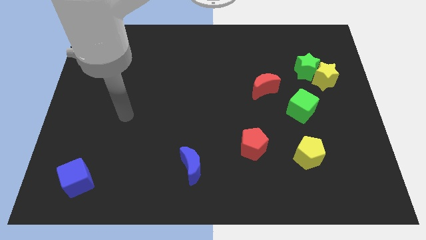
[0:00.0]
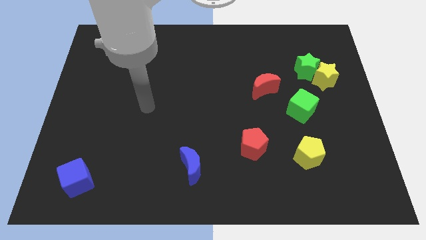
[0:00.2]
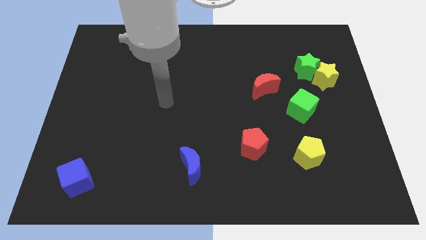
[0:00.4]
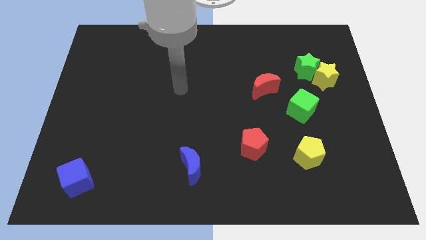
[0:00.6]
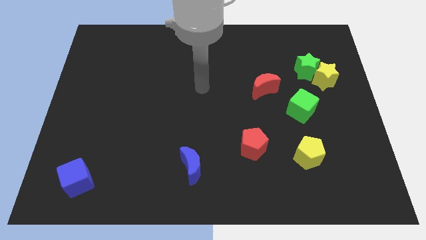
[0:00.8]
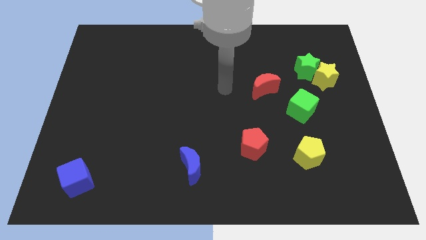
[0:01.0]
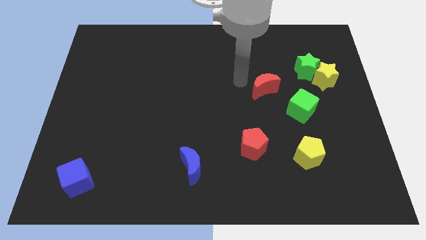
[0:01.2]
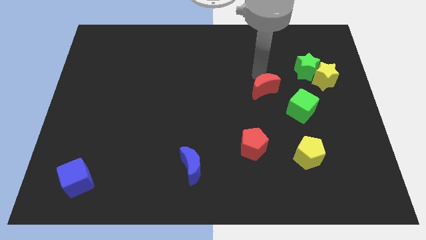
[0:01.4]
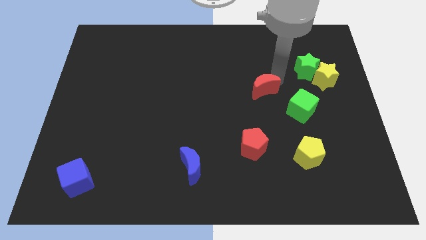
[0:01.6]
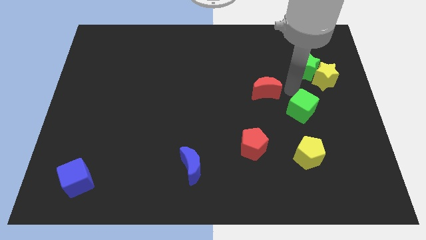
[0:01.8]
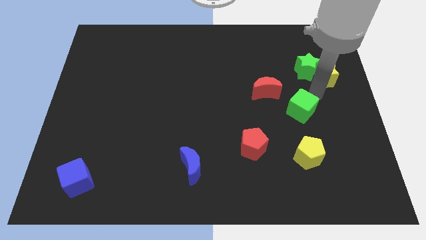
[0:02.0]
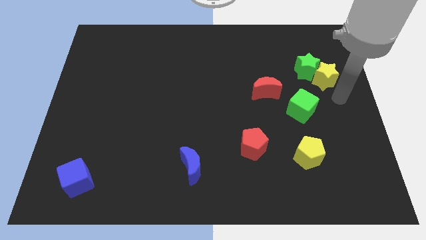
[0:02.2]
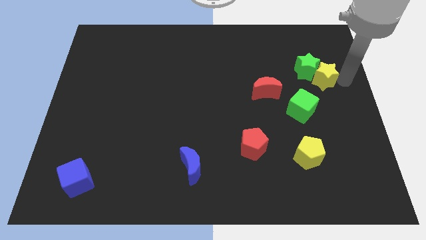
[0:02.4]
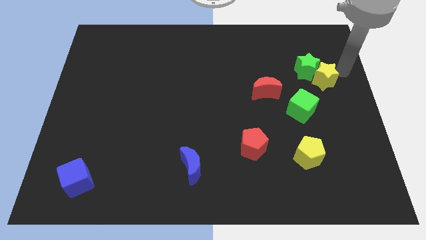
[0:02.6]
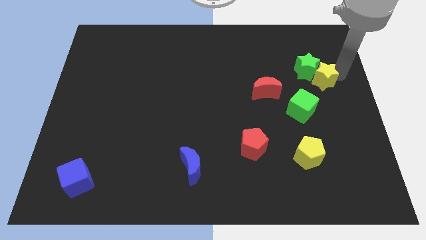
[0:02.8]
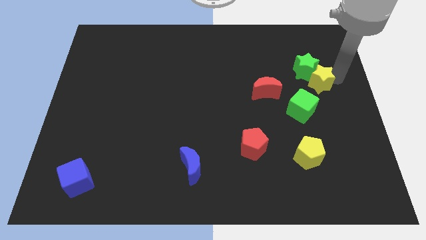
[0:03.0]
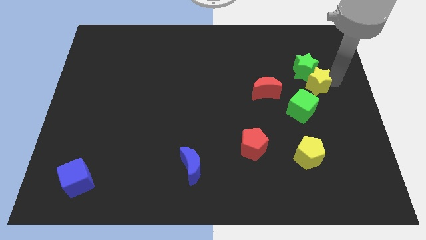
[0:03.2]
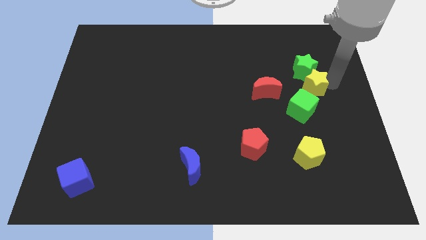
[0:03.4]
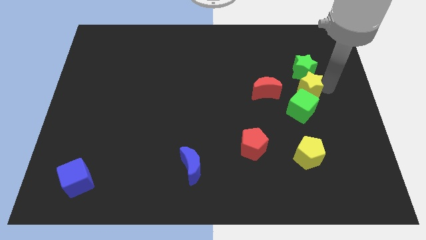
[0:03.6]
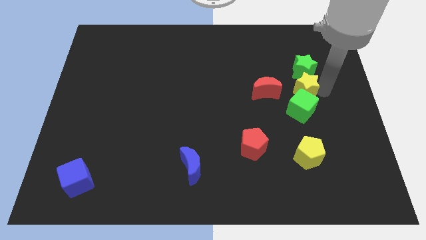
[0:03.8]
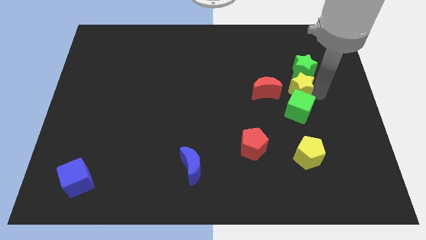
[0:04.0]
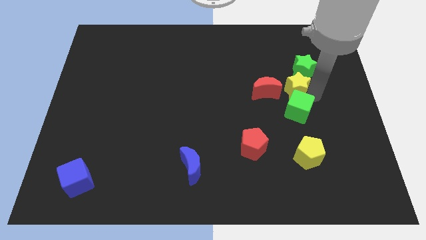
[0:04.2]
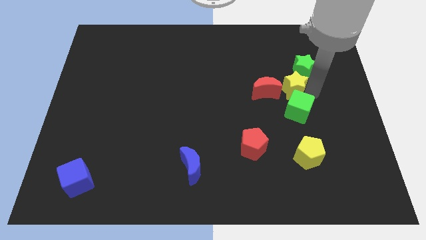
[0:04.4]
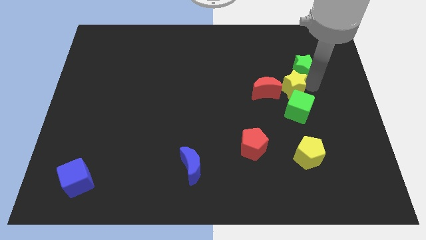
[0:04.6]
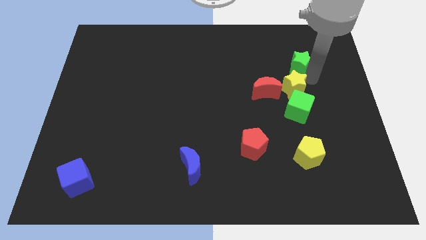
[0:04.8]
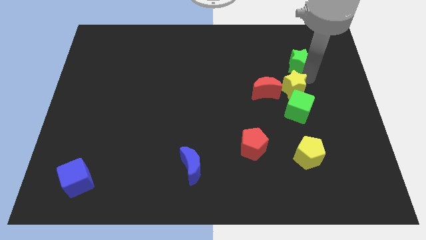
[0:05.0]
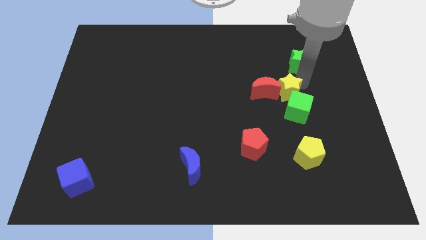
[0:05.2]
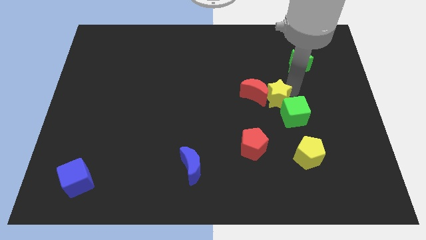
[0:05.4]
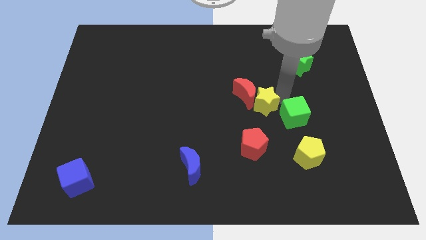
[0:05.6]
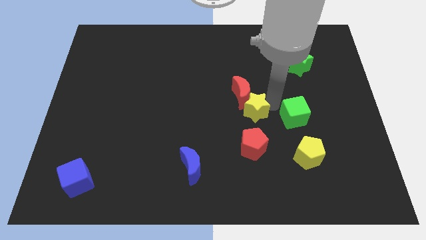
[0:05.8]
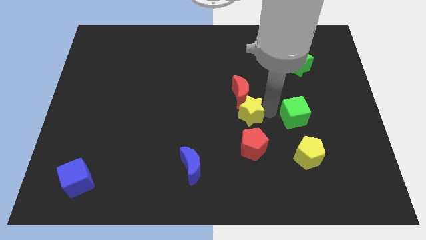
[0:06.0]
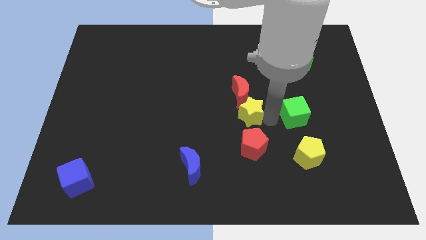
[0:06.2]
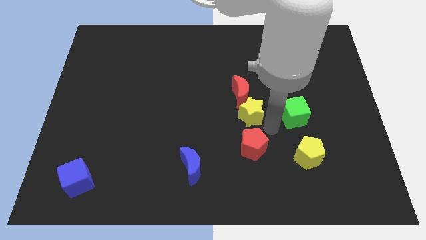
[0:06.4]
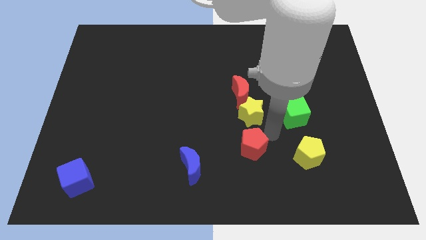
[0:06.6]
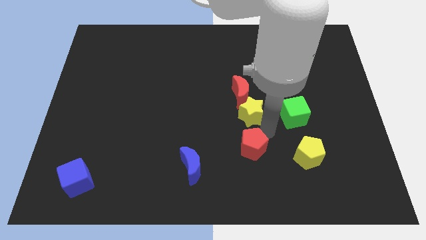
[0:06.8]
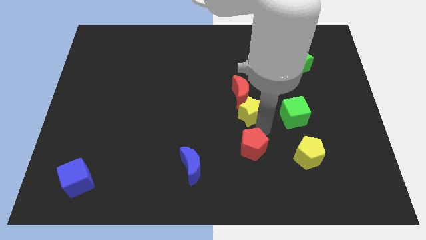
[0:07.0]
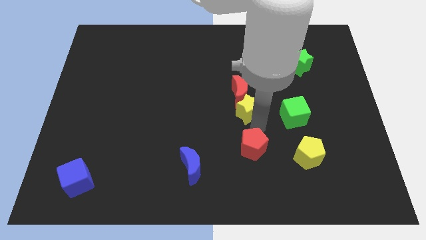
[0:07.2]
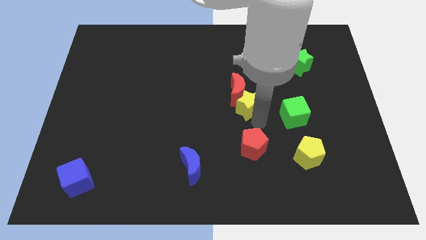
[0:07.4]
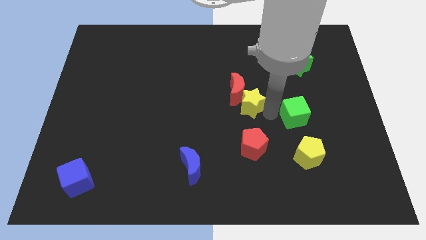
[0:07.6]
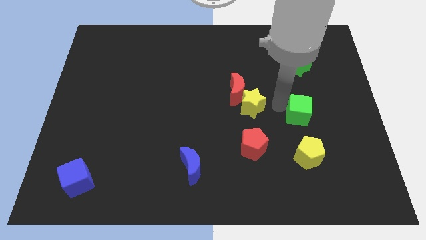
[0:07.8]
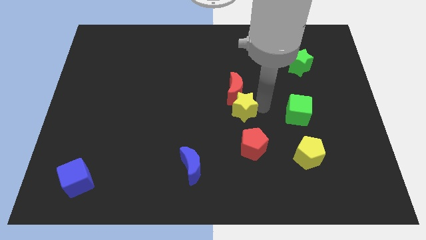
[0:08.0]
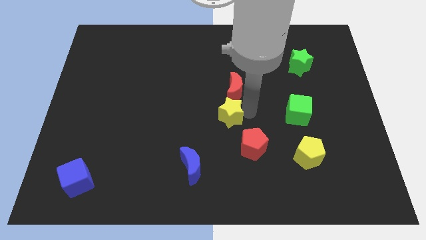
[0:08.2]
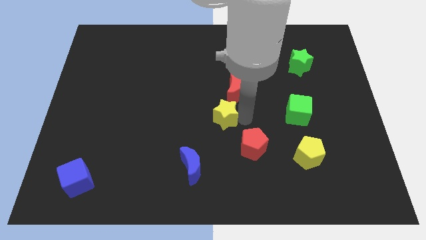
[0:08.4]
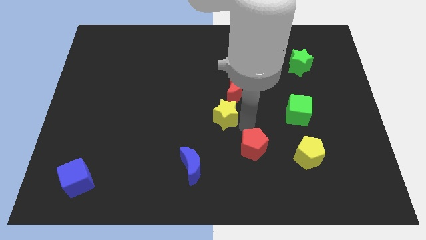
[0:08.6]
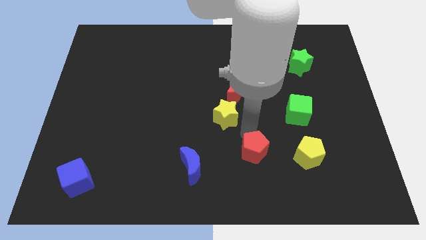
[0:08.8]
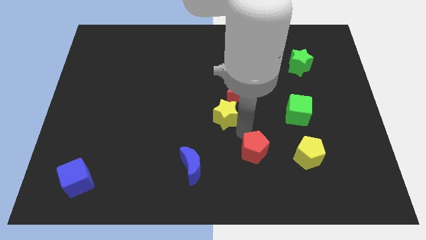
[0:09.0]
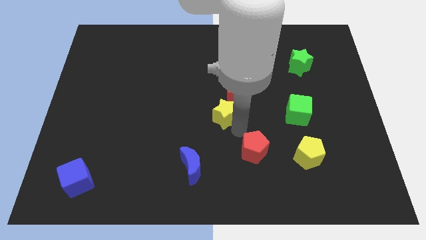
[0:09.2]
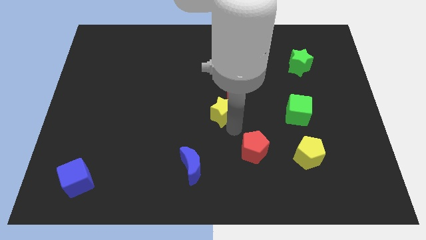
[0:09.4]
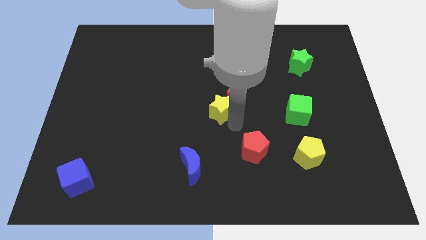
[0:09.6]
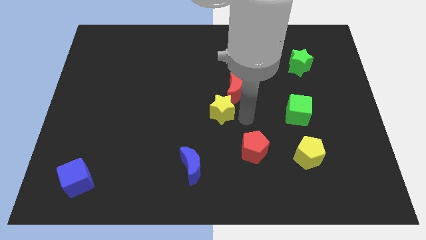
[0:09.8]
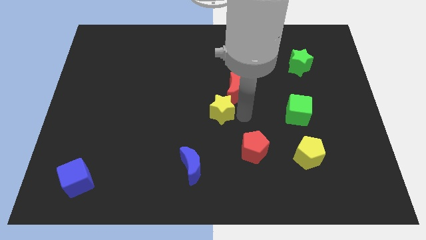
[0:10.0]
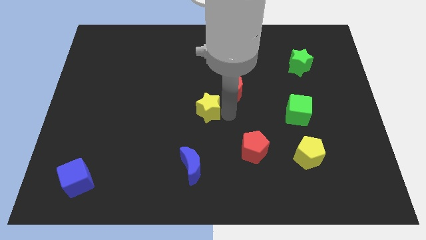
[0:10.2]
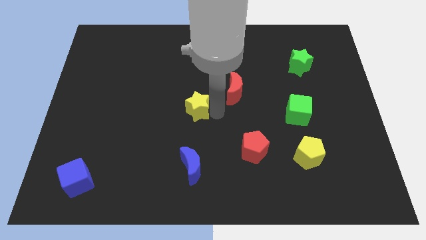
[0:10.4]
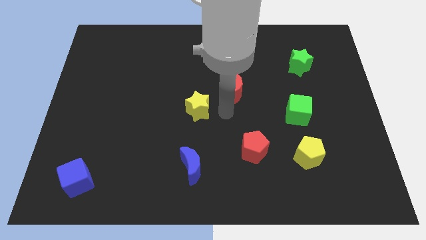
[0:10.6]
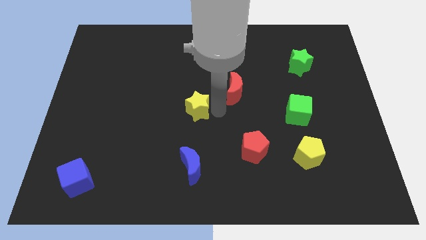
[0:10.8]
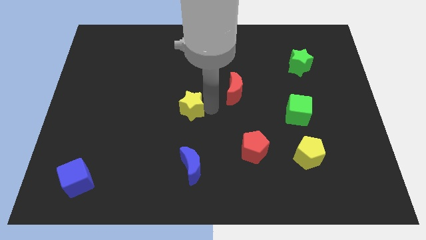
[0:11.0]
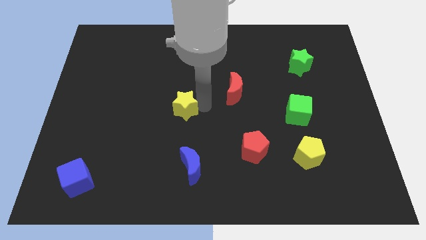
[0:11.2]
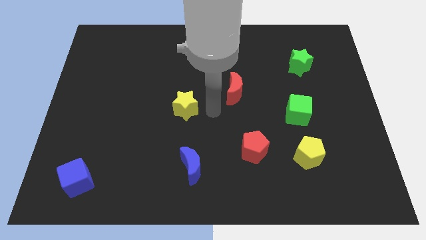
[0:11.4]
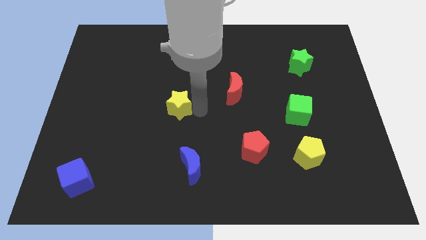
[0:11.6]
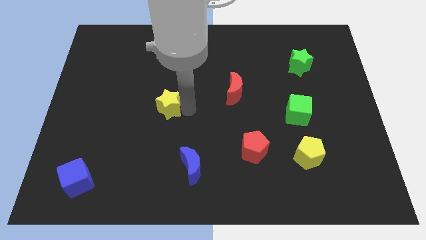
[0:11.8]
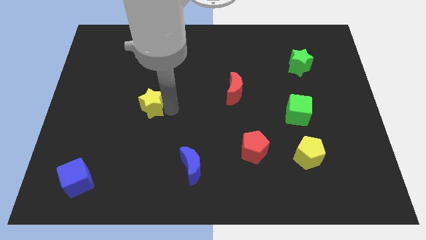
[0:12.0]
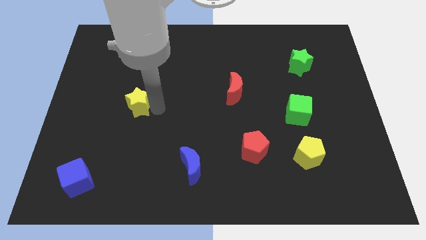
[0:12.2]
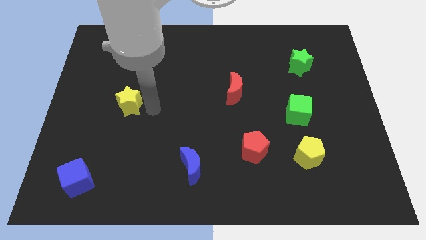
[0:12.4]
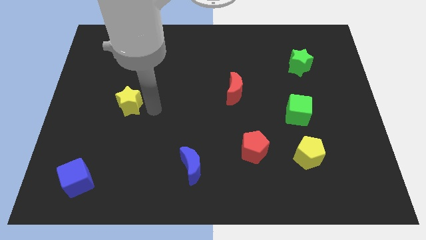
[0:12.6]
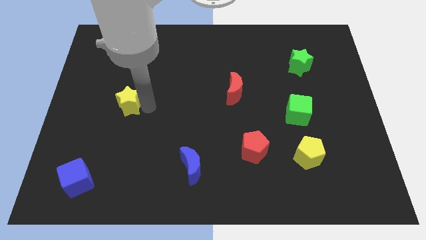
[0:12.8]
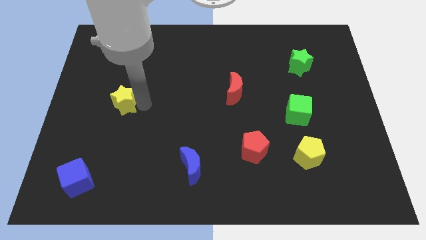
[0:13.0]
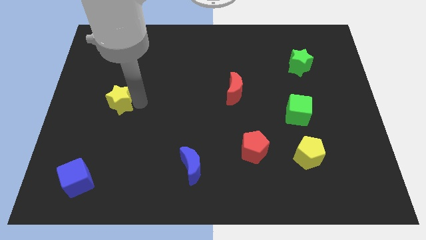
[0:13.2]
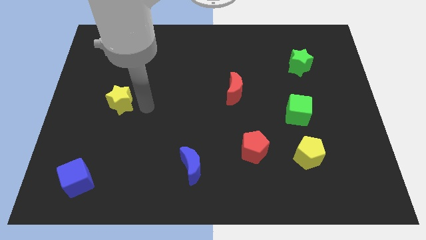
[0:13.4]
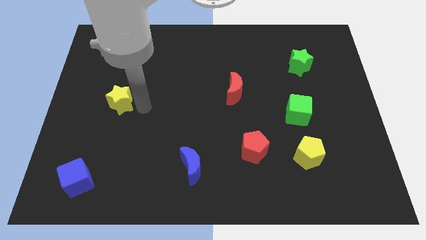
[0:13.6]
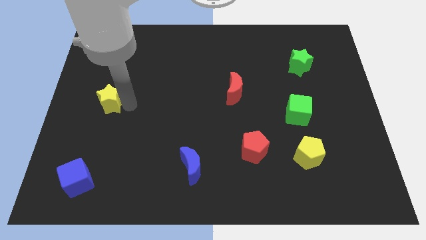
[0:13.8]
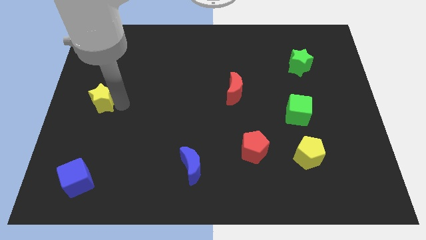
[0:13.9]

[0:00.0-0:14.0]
move the yellow star to the center left
